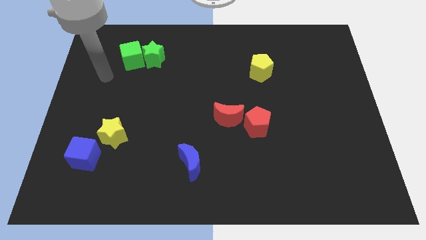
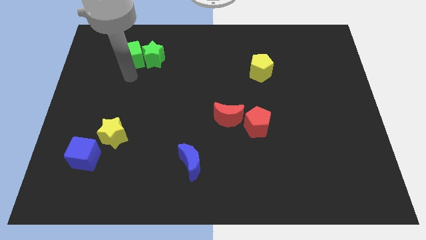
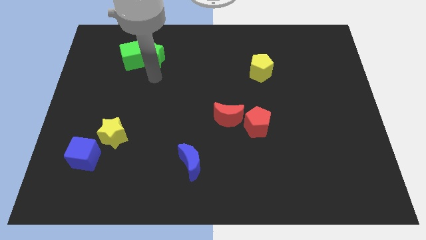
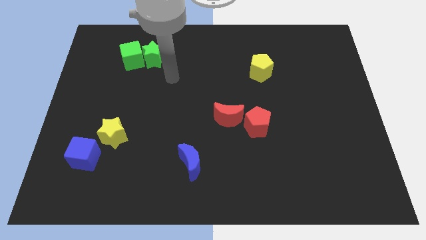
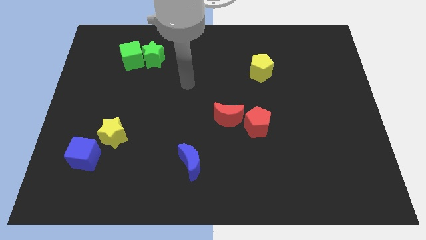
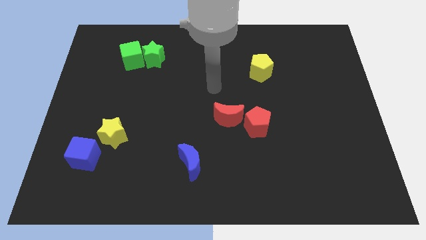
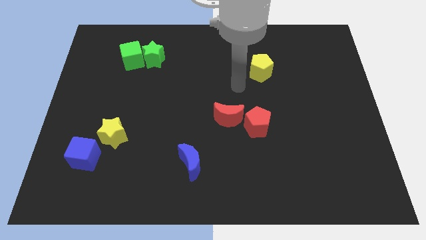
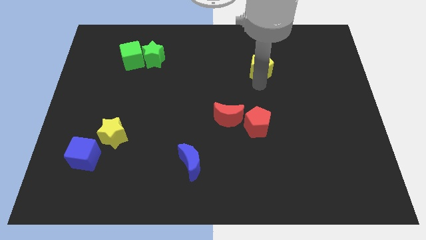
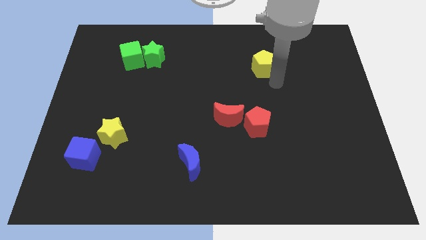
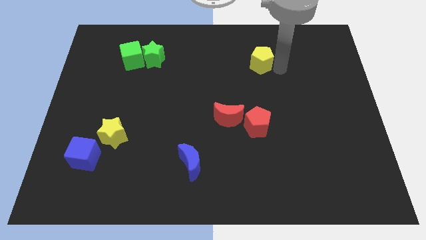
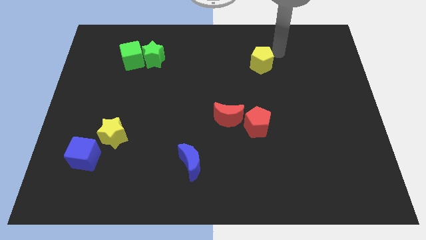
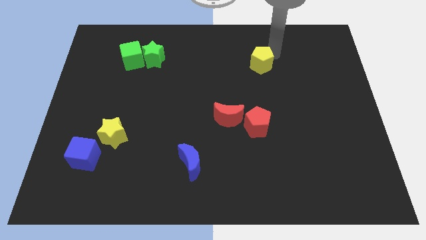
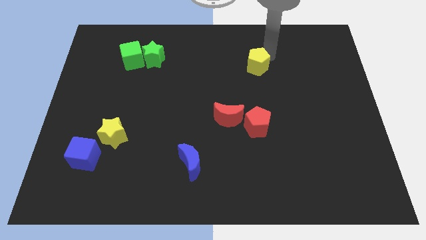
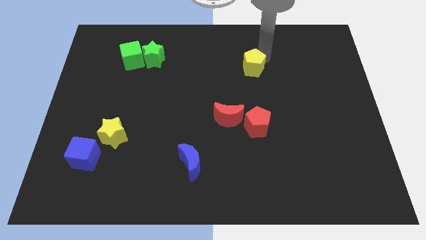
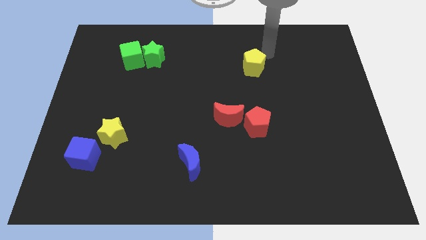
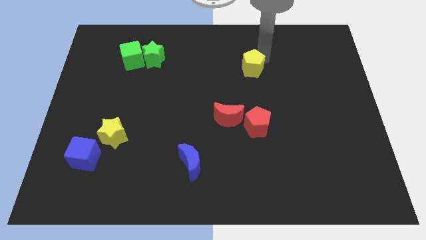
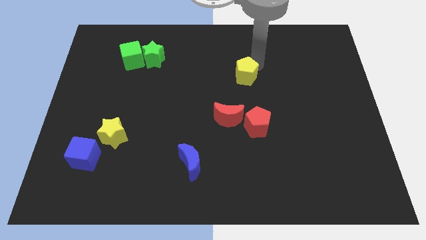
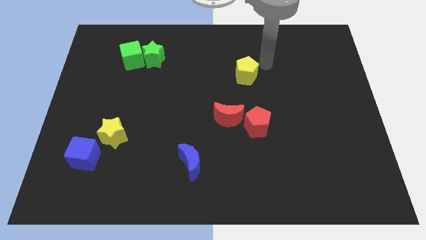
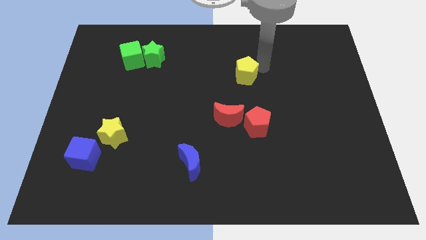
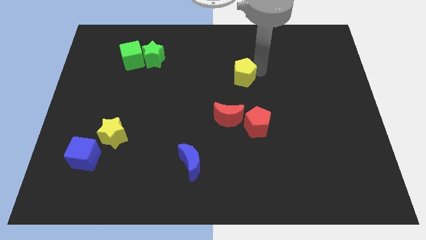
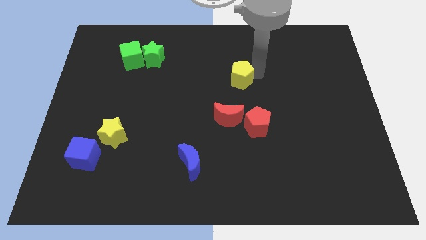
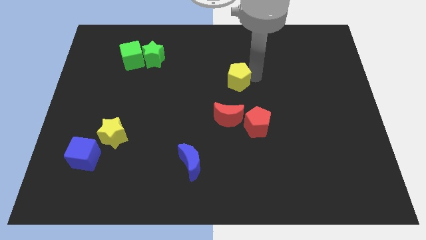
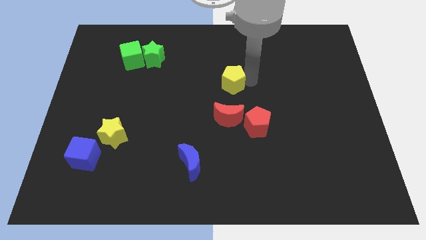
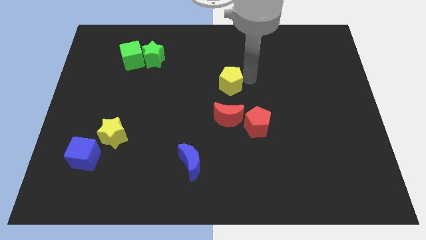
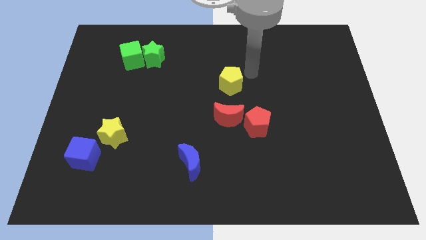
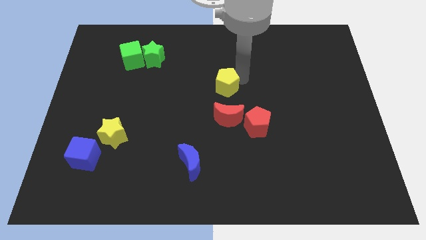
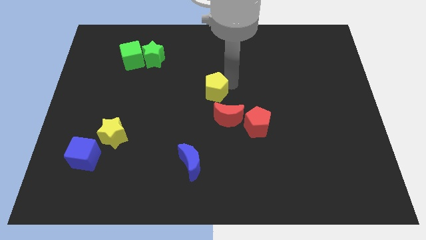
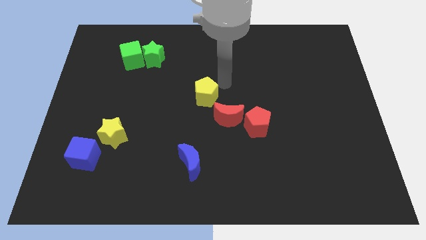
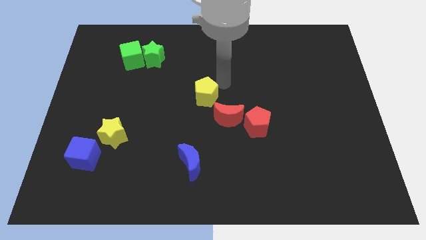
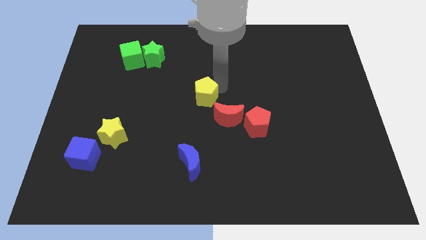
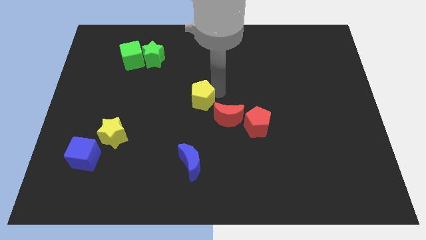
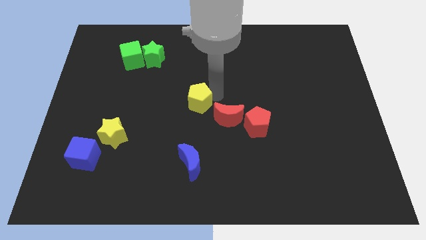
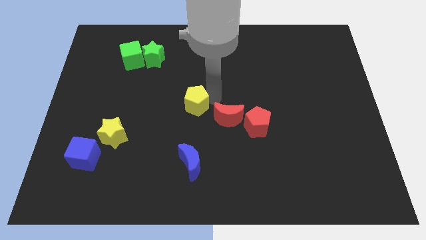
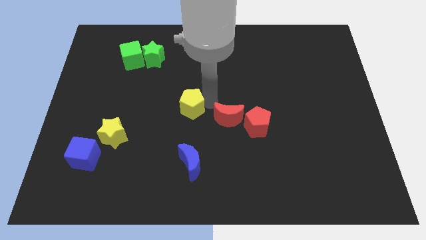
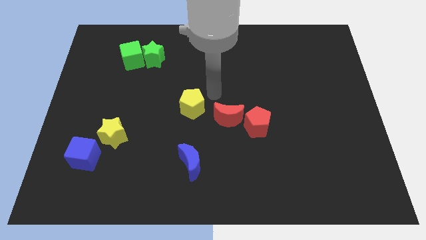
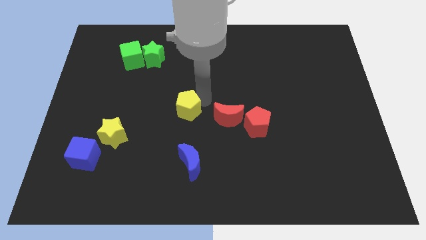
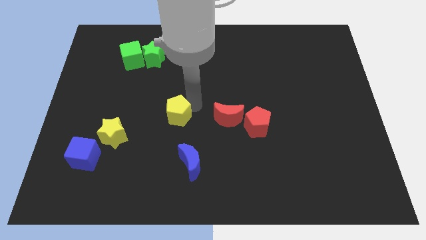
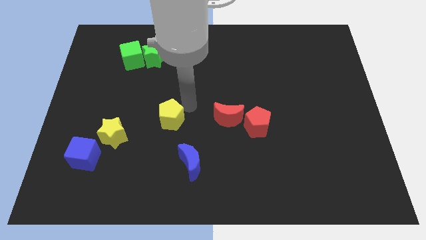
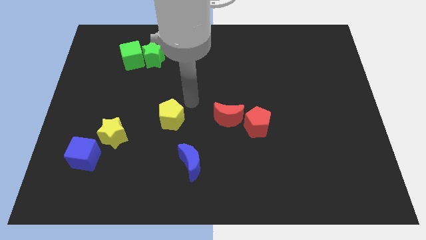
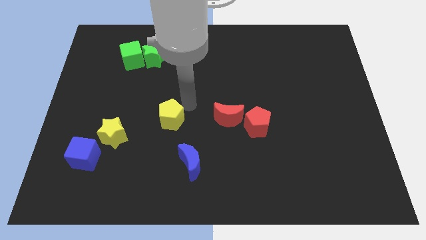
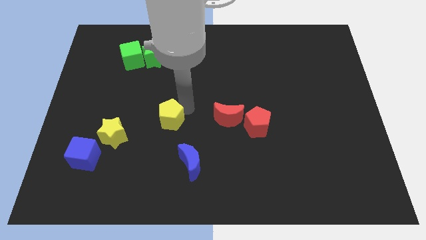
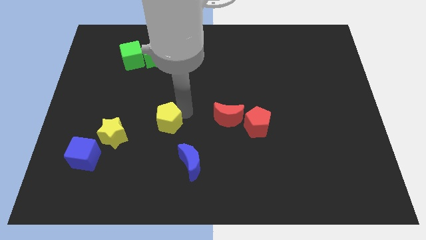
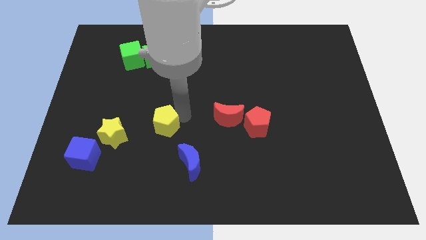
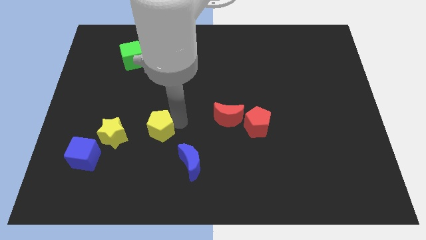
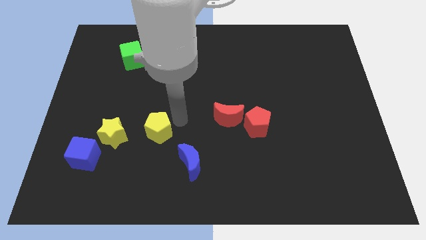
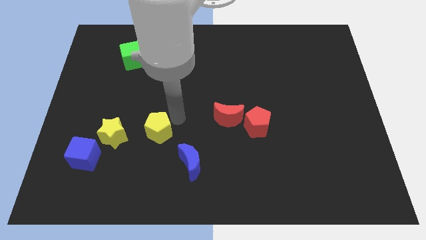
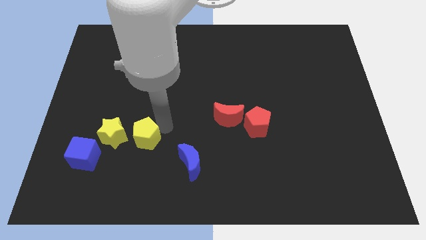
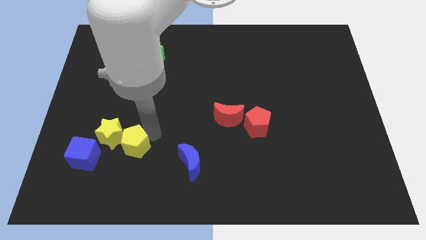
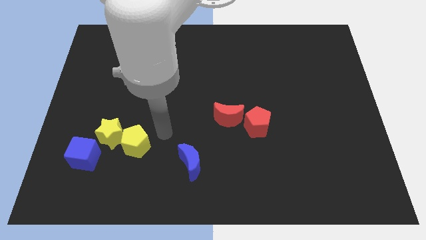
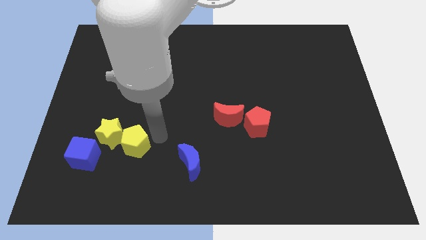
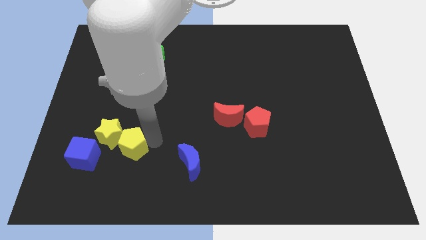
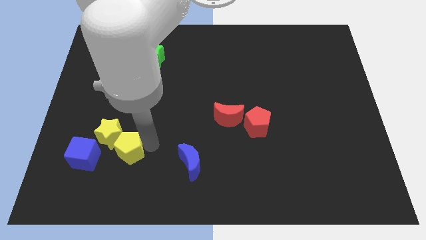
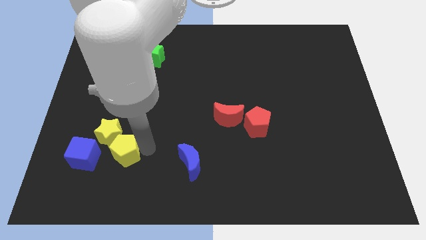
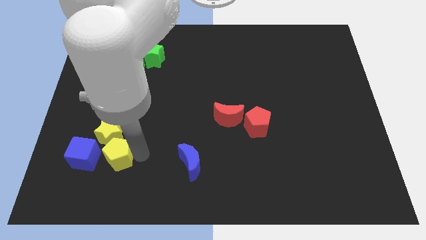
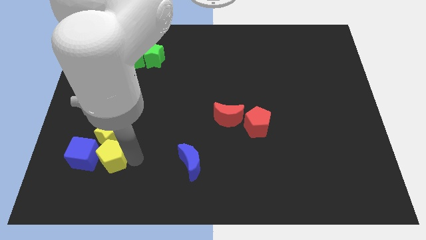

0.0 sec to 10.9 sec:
move the yellow pentagon next to the blue cube

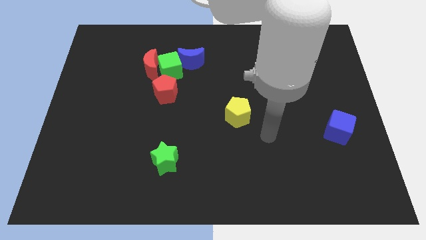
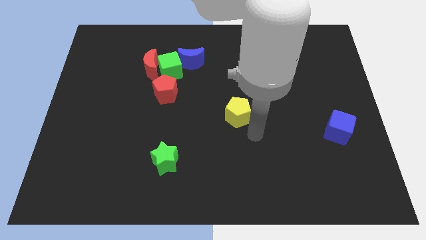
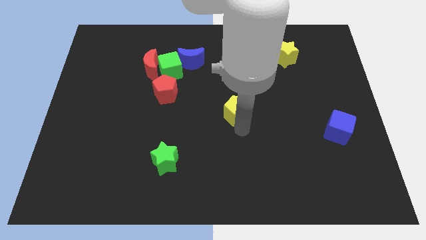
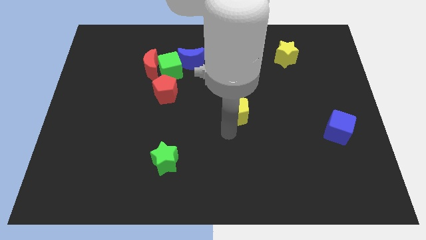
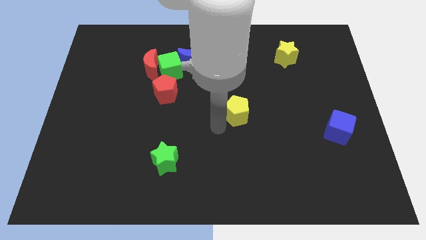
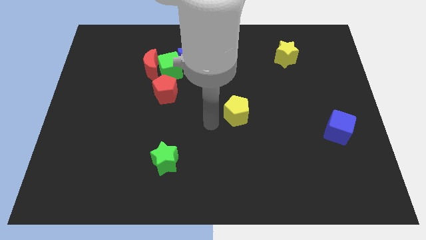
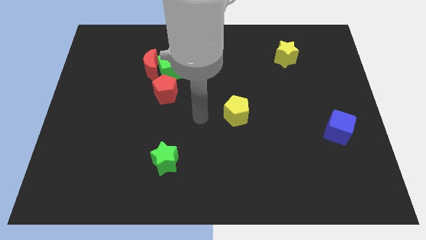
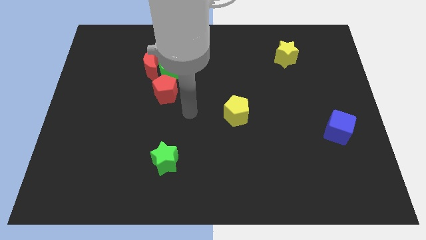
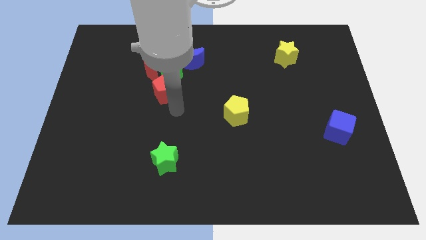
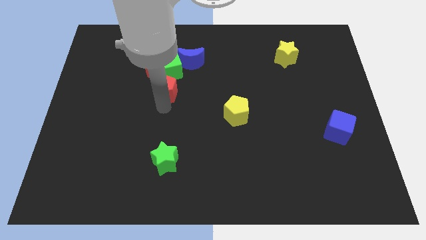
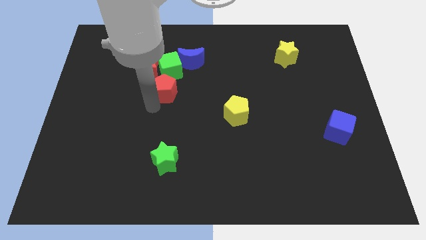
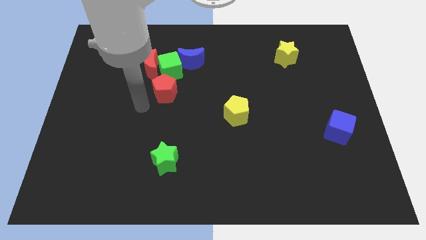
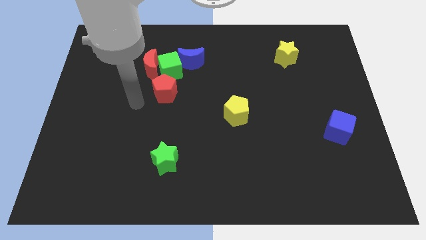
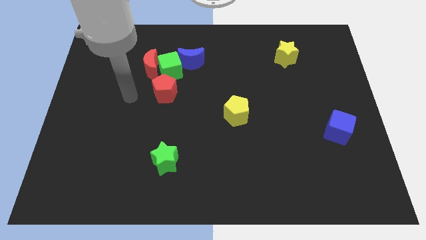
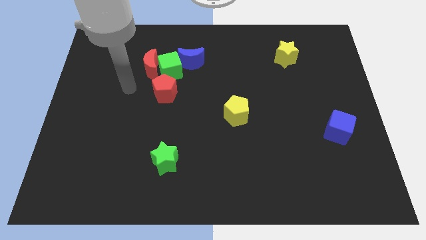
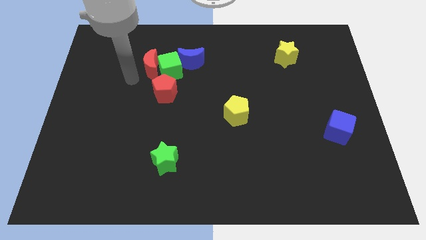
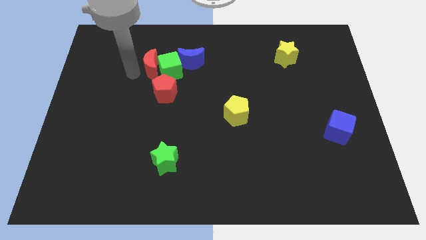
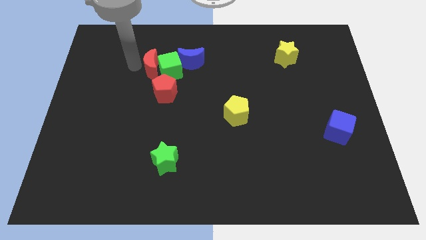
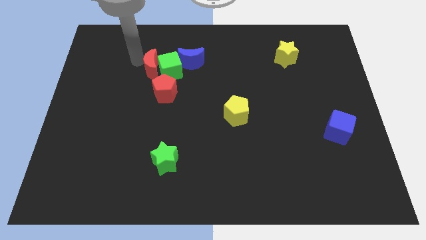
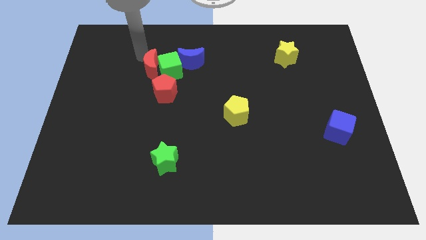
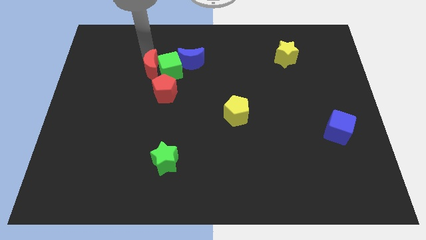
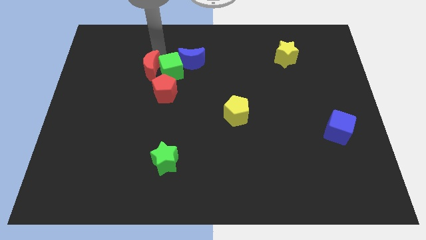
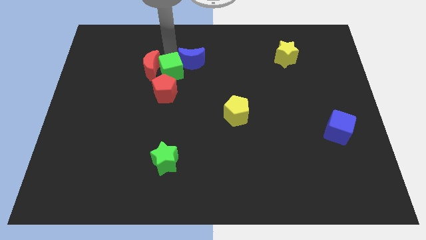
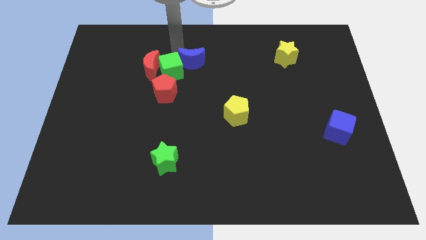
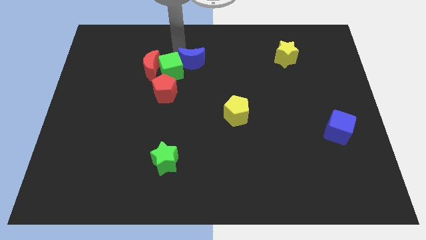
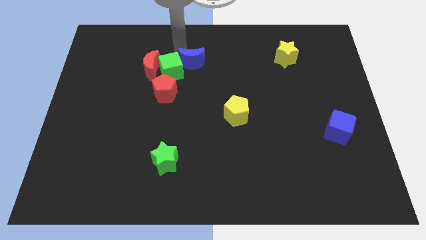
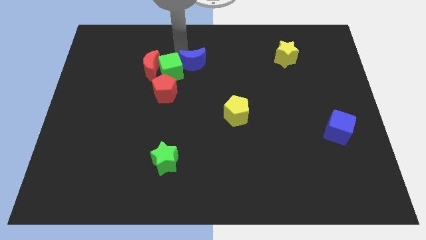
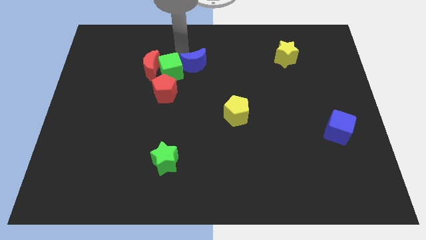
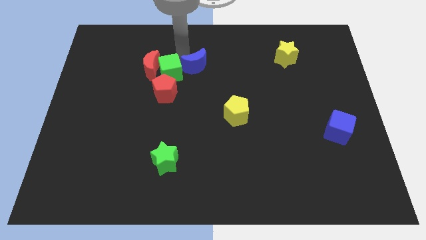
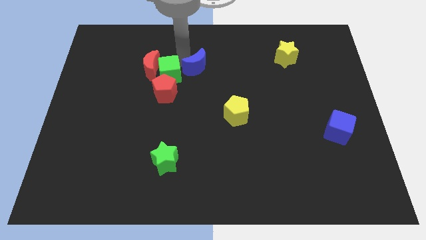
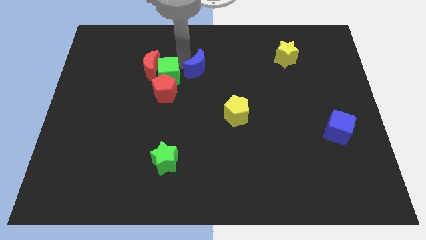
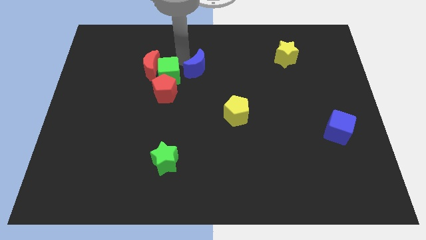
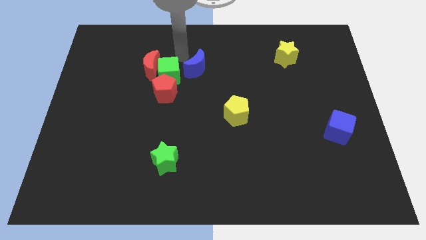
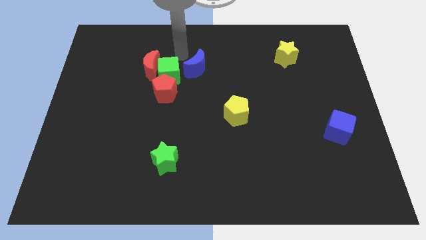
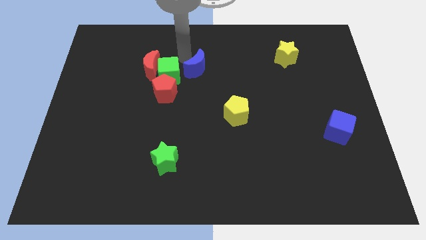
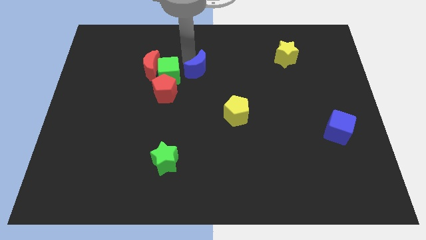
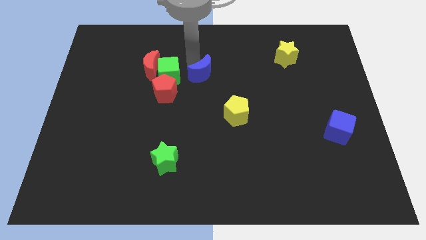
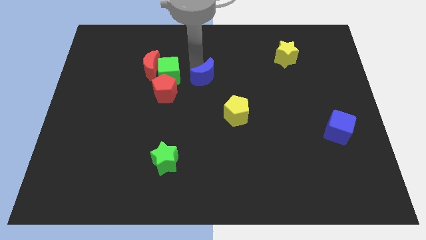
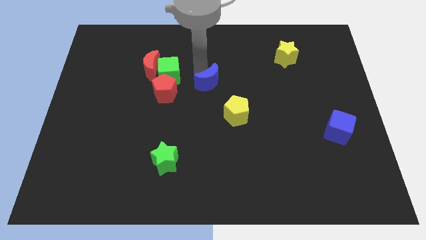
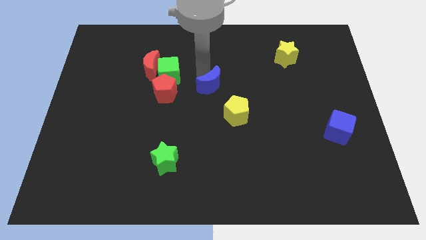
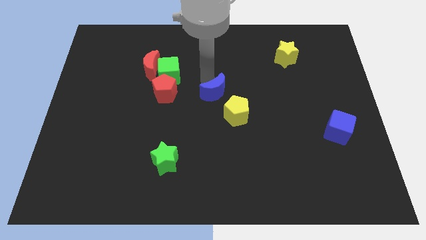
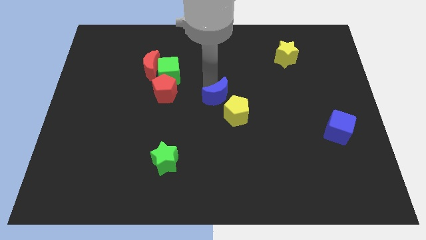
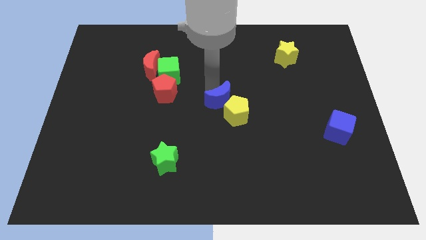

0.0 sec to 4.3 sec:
move the blue moon towards the yellow pentagon
